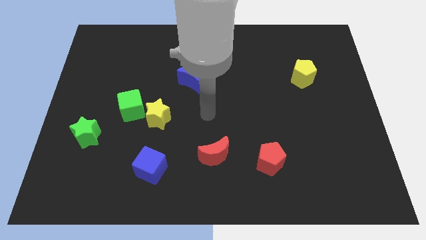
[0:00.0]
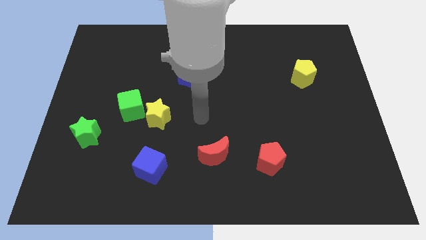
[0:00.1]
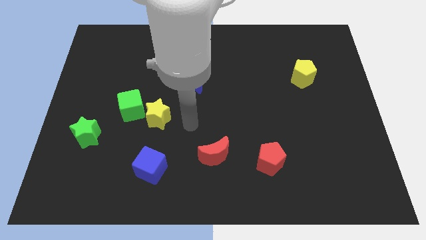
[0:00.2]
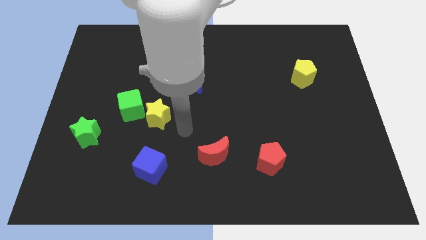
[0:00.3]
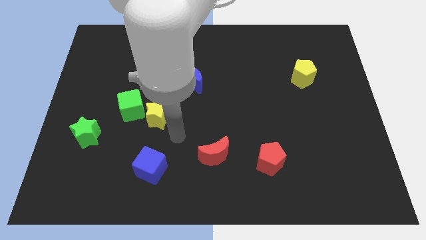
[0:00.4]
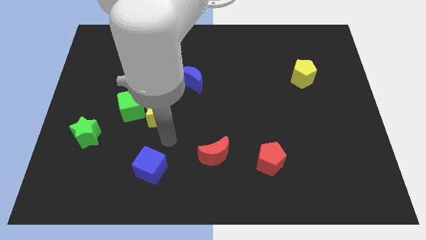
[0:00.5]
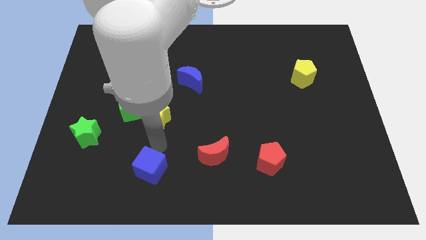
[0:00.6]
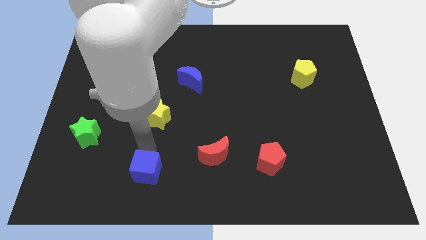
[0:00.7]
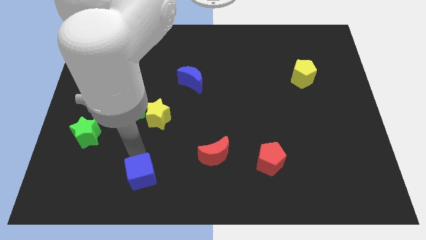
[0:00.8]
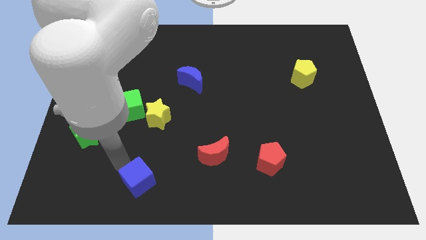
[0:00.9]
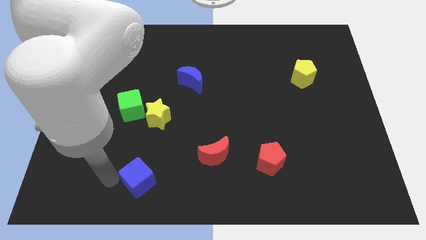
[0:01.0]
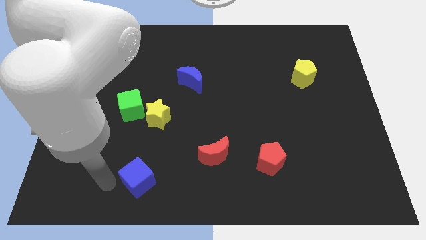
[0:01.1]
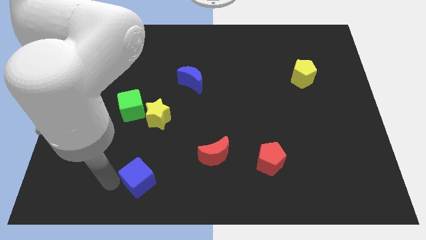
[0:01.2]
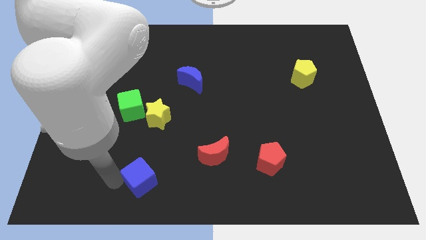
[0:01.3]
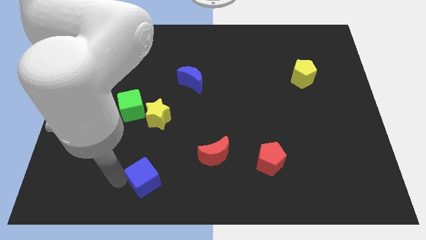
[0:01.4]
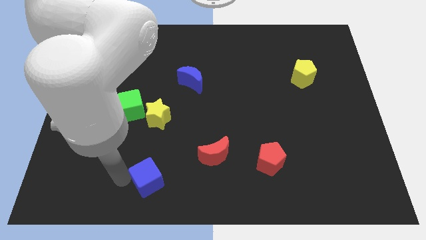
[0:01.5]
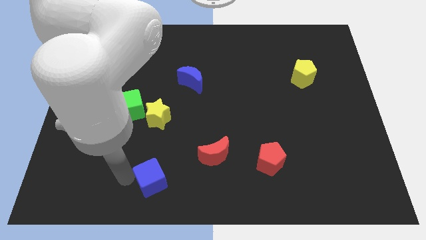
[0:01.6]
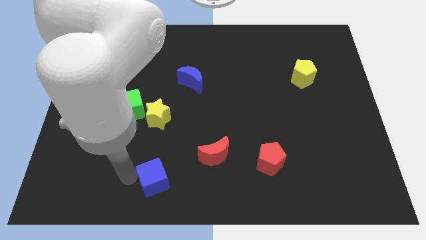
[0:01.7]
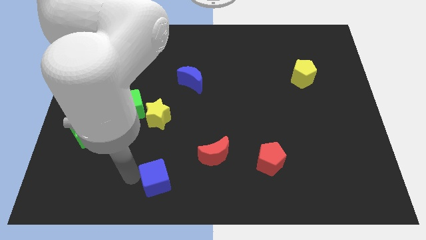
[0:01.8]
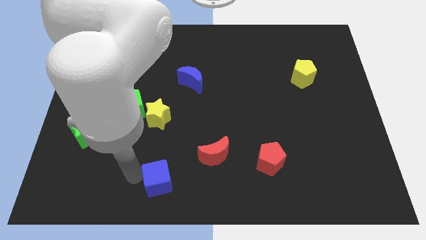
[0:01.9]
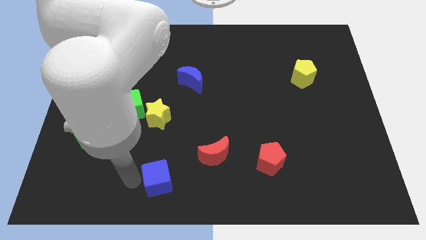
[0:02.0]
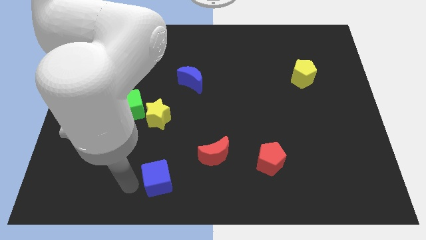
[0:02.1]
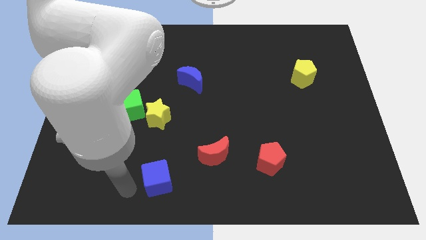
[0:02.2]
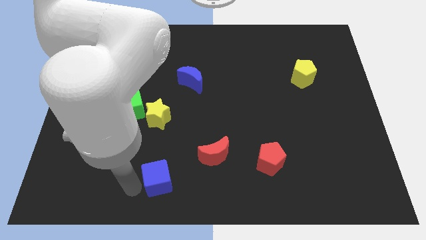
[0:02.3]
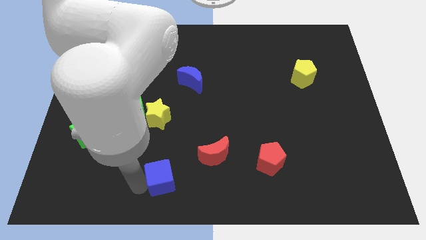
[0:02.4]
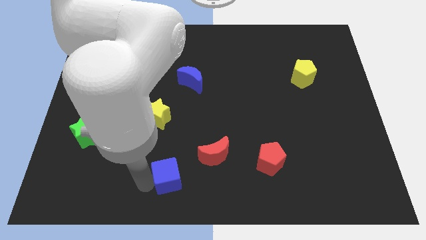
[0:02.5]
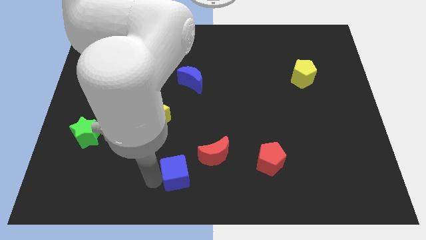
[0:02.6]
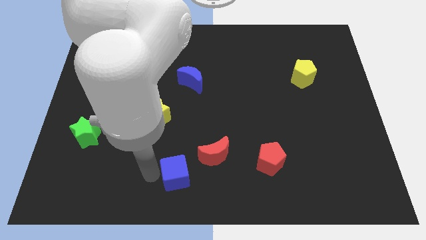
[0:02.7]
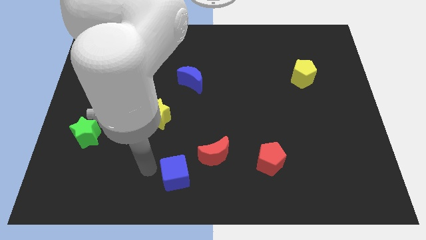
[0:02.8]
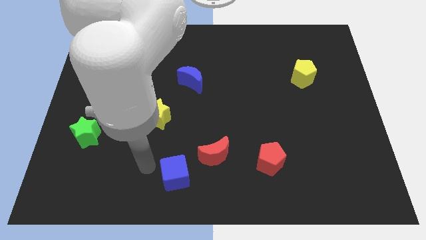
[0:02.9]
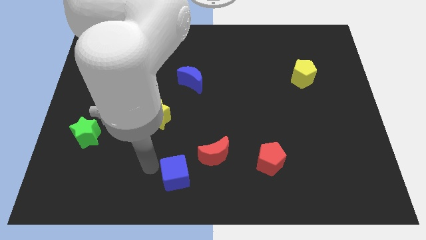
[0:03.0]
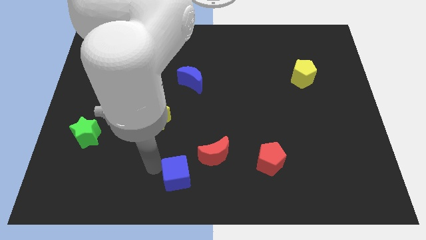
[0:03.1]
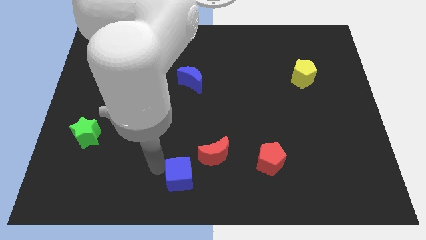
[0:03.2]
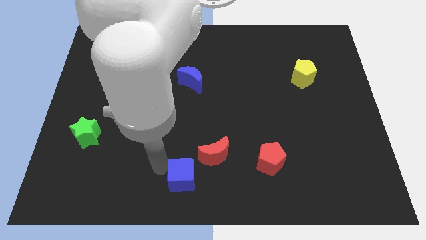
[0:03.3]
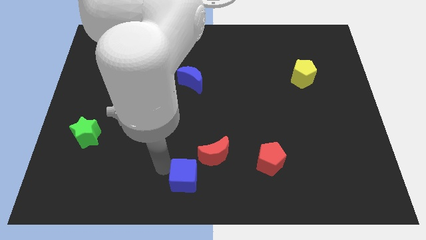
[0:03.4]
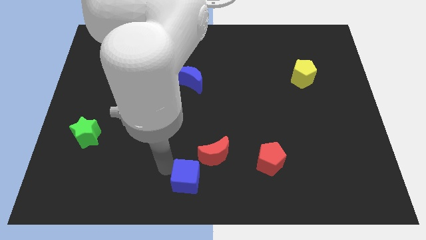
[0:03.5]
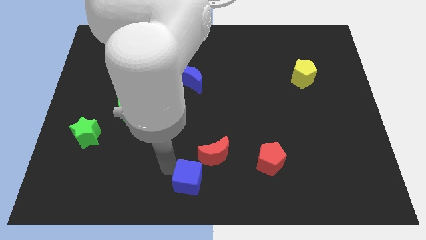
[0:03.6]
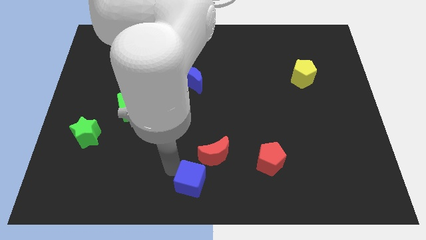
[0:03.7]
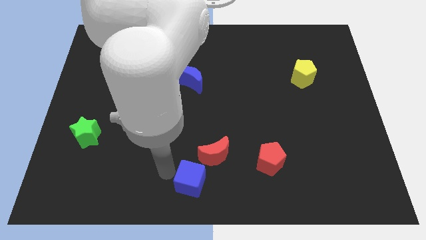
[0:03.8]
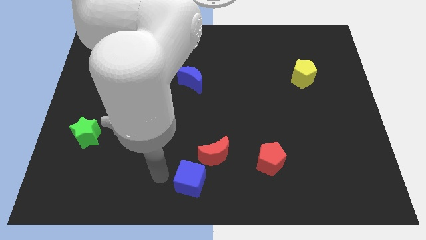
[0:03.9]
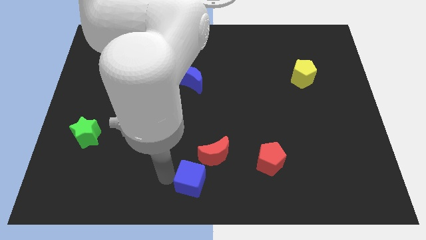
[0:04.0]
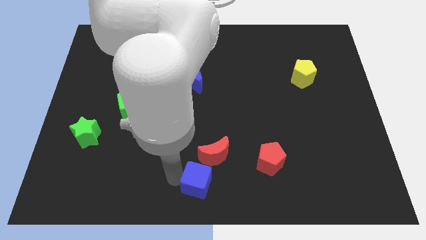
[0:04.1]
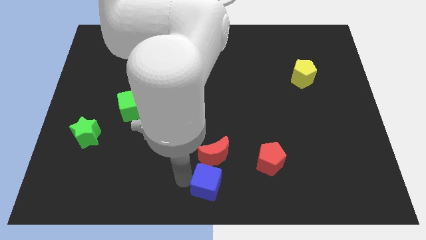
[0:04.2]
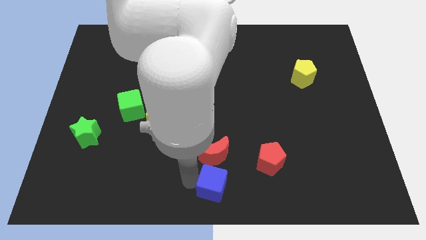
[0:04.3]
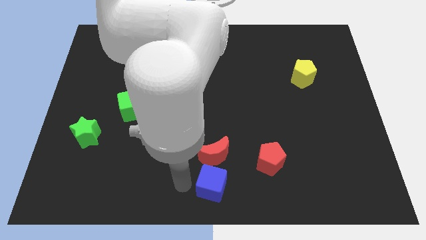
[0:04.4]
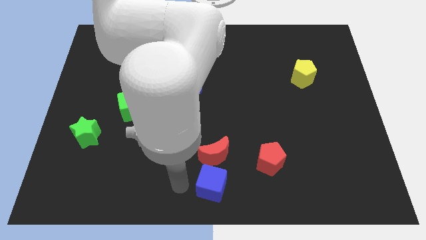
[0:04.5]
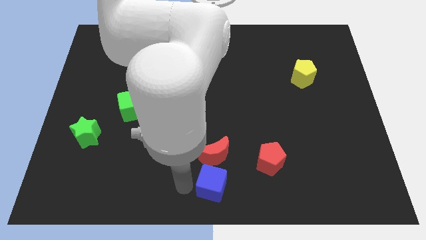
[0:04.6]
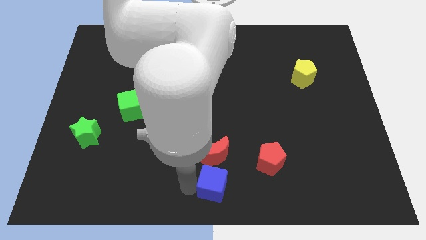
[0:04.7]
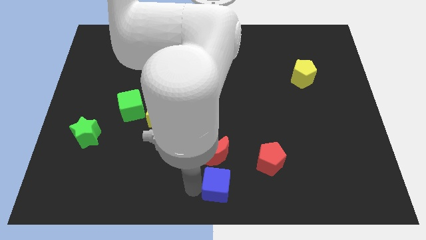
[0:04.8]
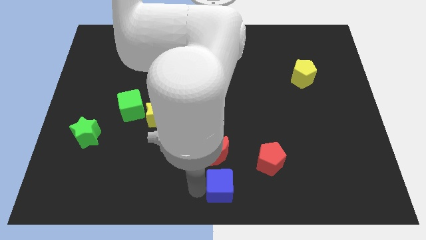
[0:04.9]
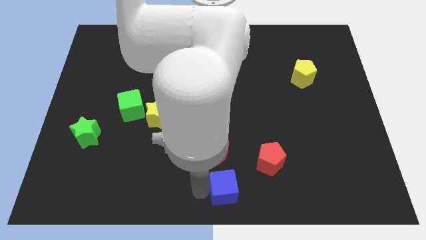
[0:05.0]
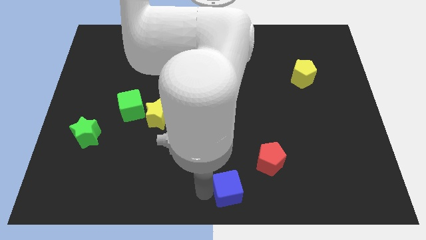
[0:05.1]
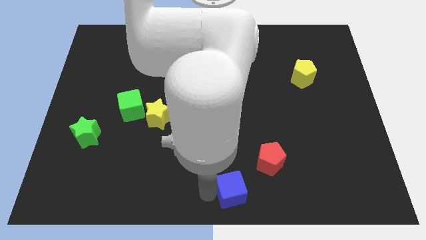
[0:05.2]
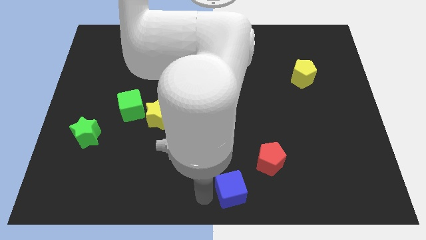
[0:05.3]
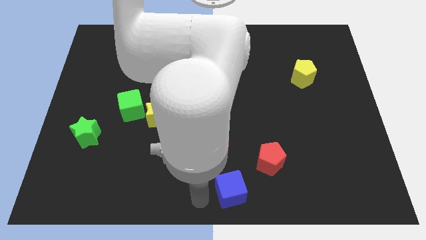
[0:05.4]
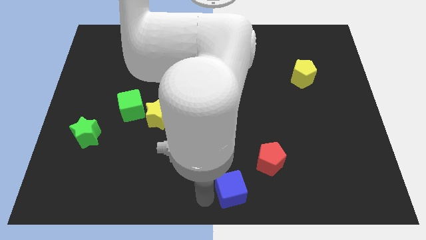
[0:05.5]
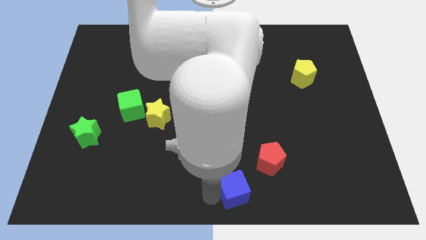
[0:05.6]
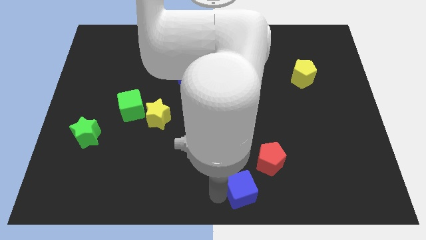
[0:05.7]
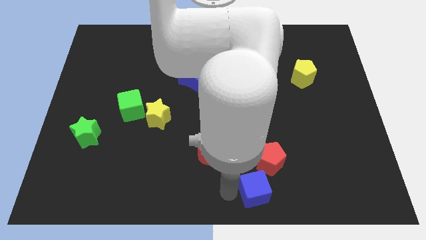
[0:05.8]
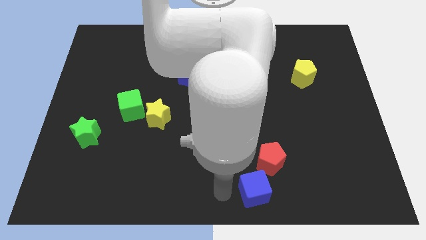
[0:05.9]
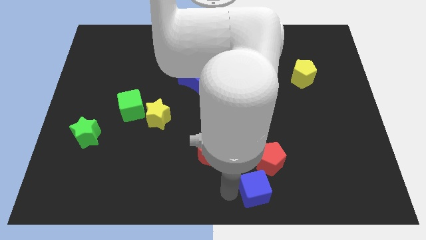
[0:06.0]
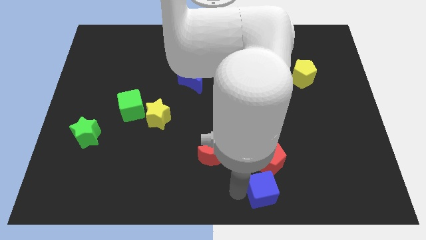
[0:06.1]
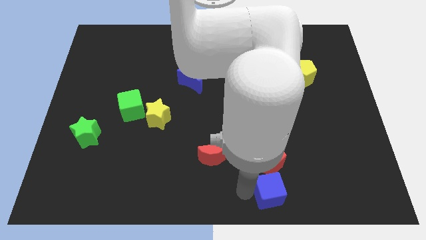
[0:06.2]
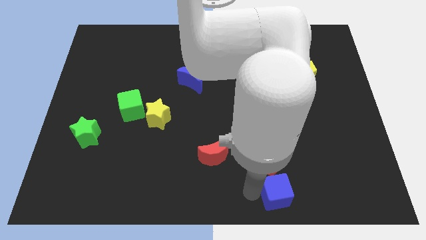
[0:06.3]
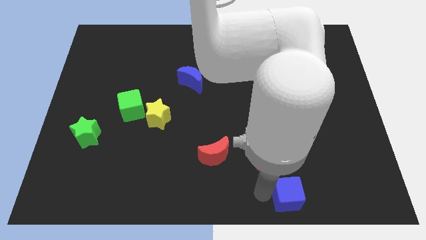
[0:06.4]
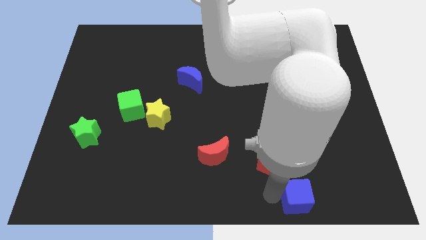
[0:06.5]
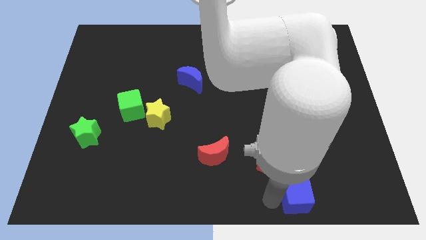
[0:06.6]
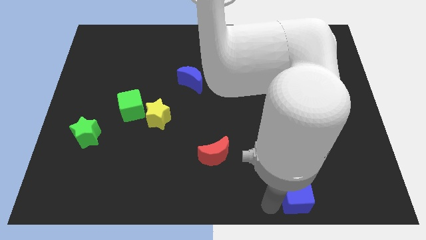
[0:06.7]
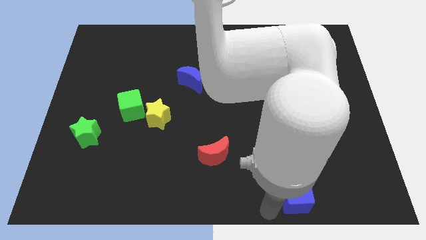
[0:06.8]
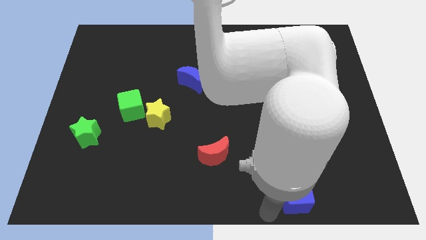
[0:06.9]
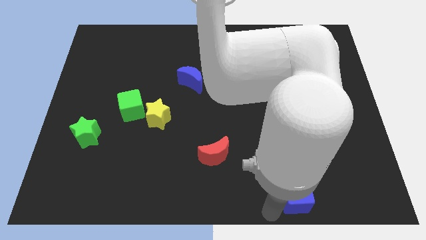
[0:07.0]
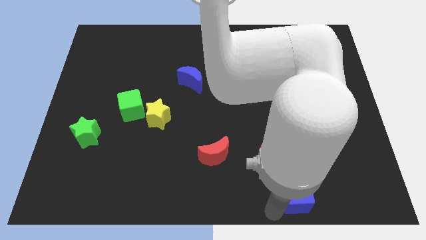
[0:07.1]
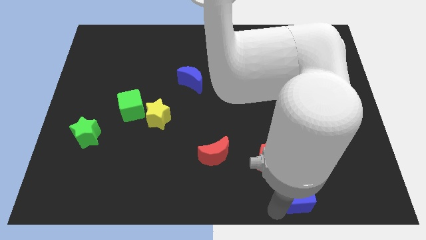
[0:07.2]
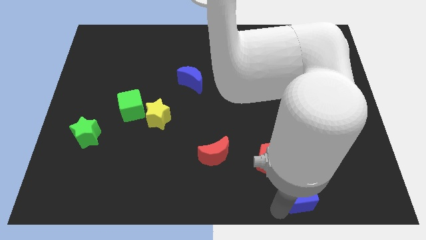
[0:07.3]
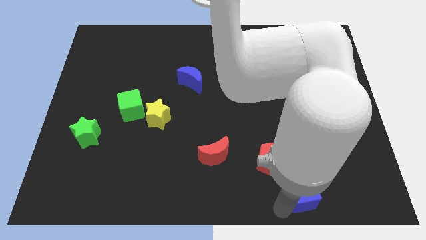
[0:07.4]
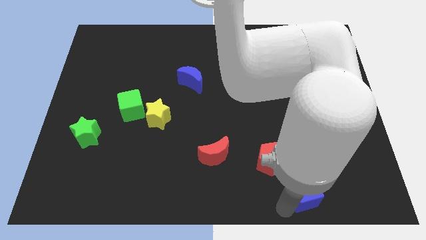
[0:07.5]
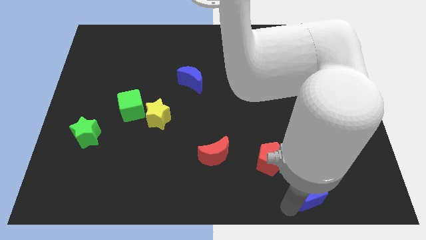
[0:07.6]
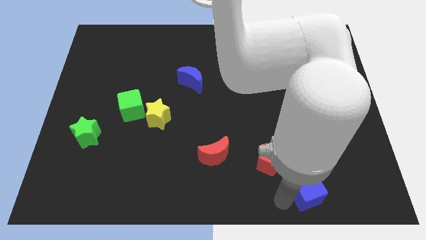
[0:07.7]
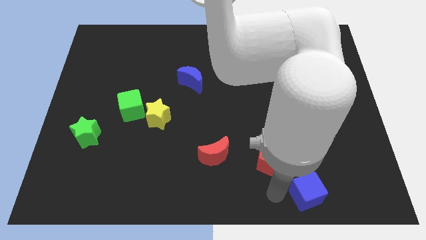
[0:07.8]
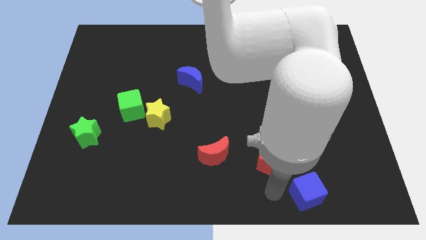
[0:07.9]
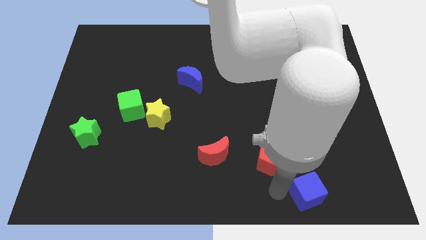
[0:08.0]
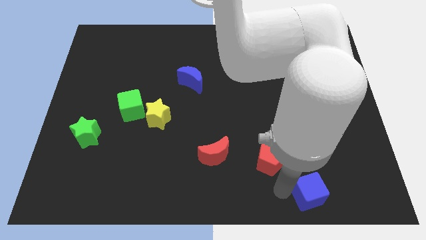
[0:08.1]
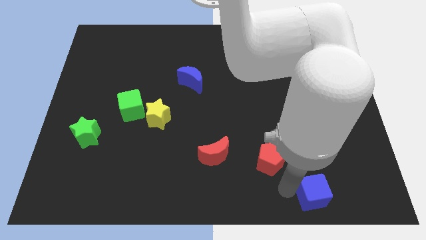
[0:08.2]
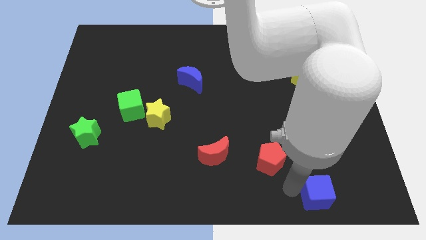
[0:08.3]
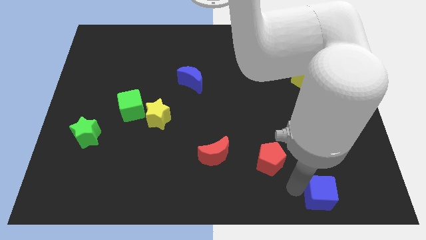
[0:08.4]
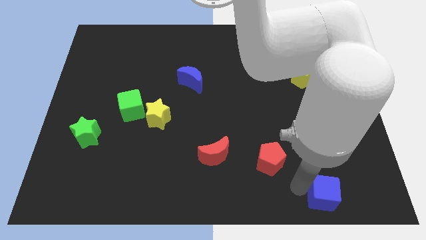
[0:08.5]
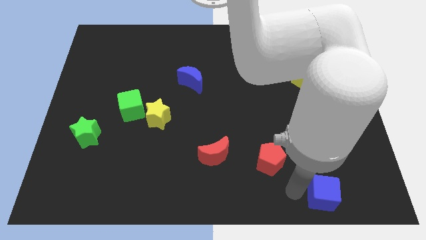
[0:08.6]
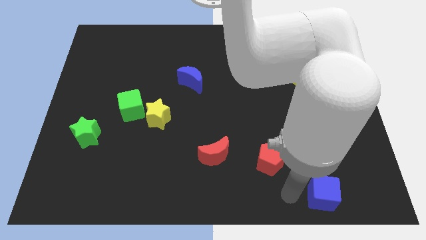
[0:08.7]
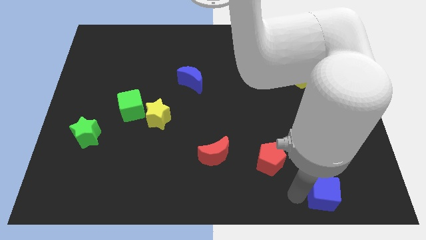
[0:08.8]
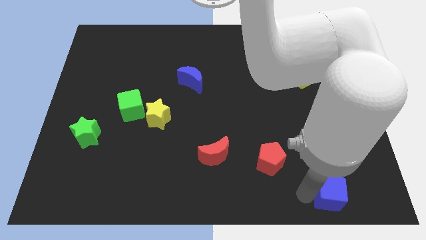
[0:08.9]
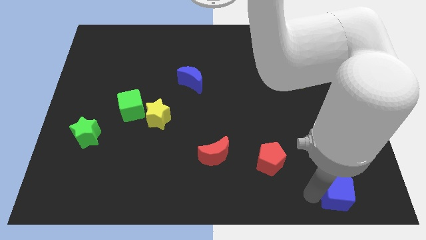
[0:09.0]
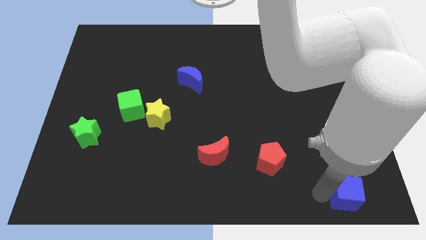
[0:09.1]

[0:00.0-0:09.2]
move the blue cube to the bottom right corner
